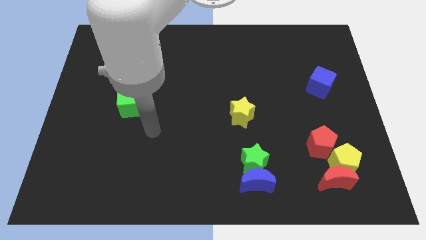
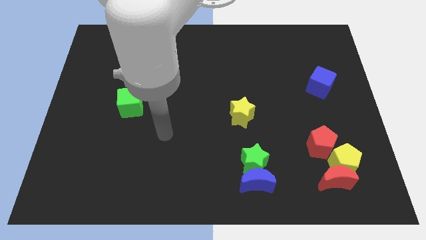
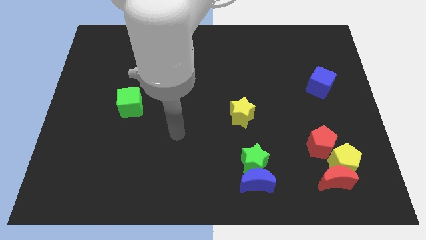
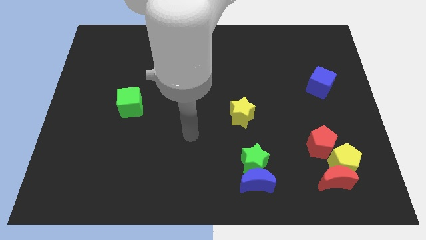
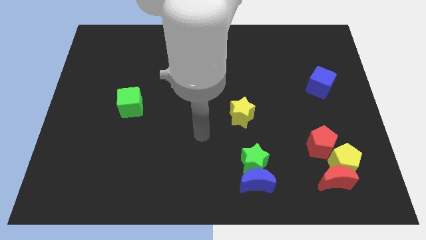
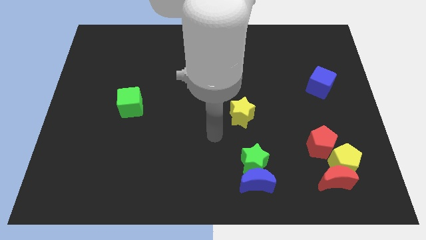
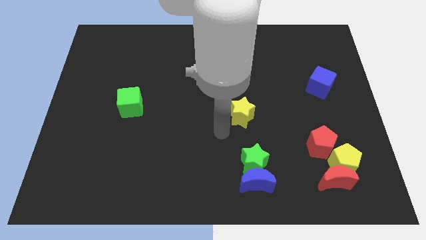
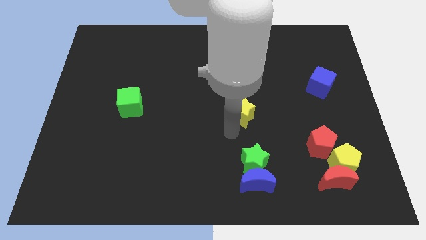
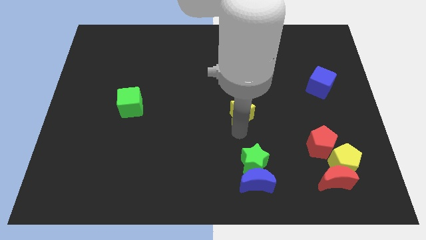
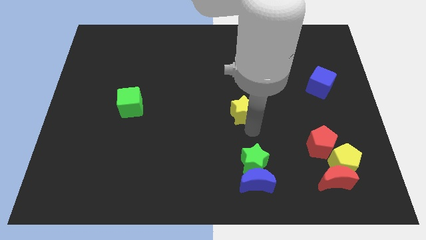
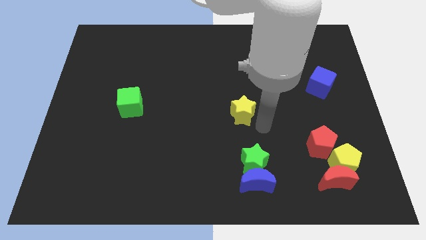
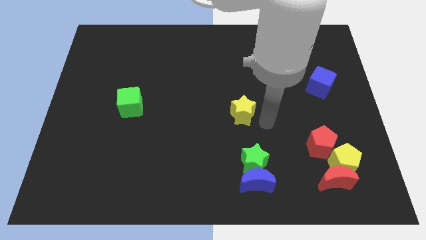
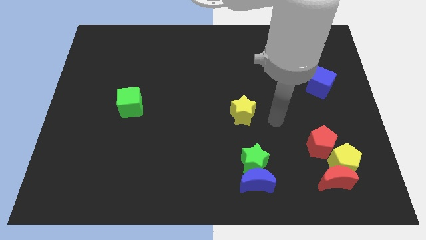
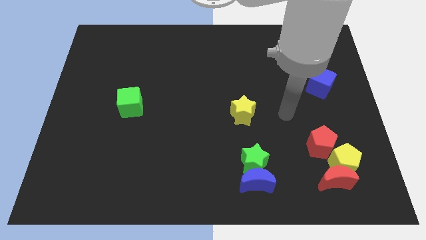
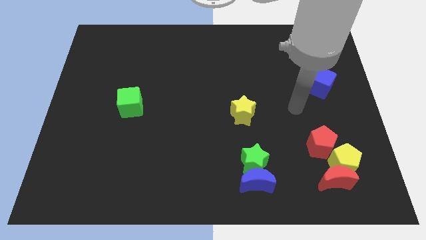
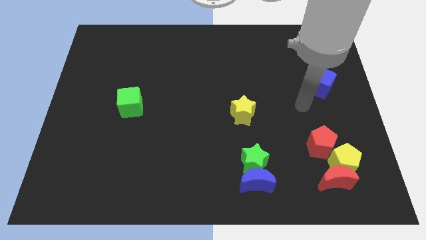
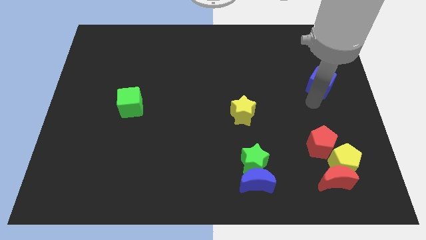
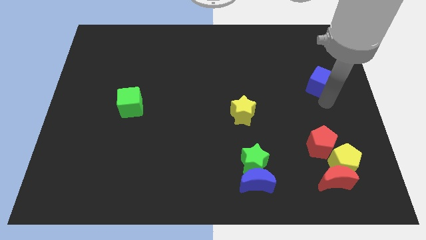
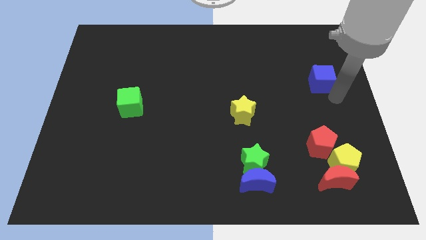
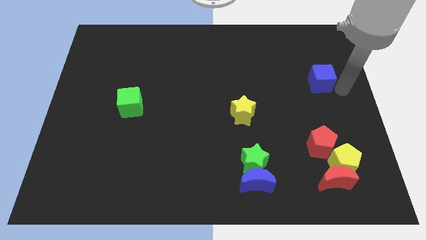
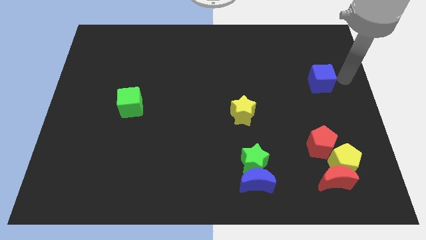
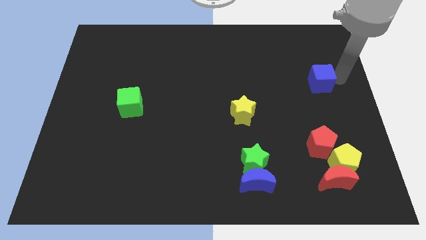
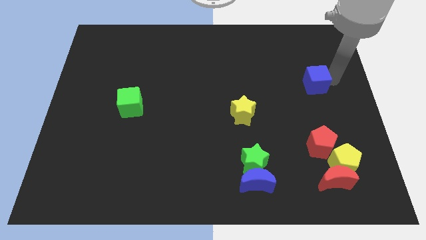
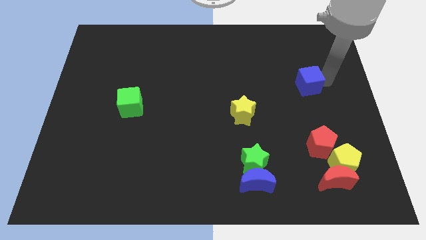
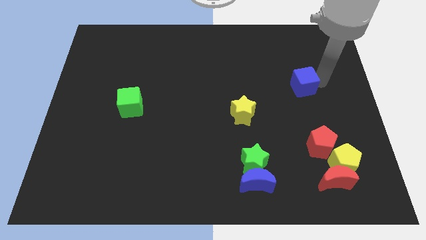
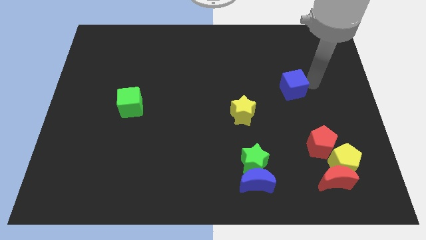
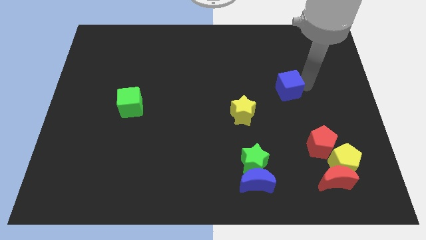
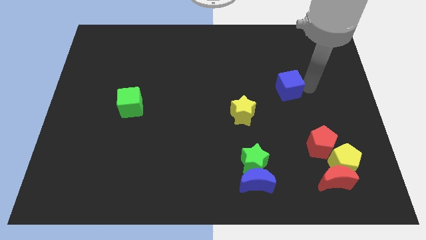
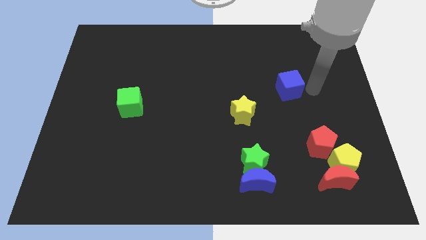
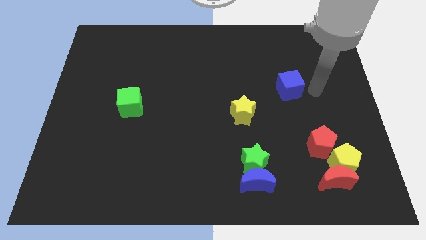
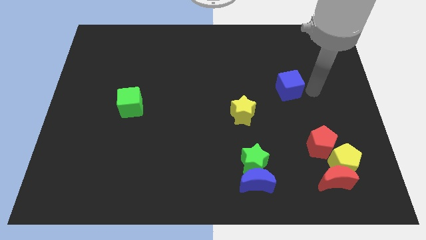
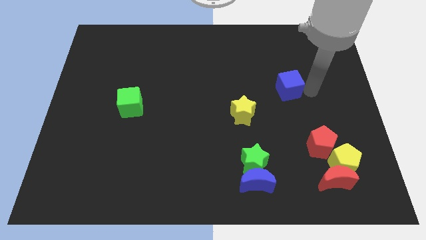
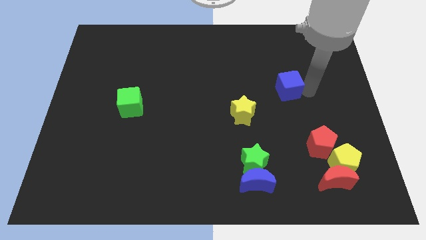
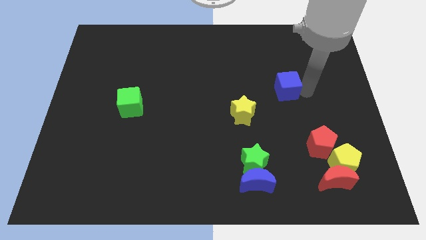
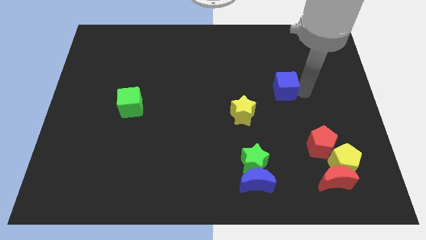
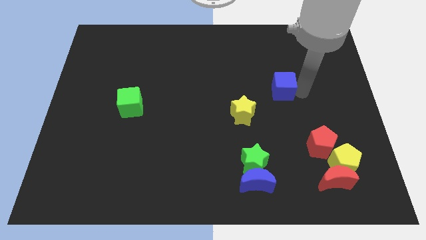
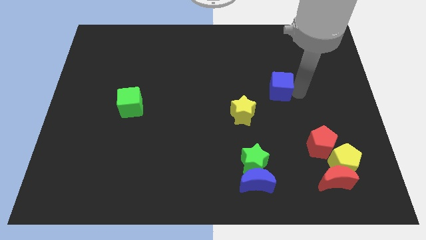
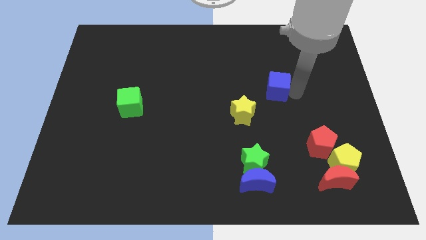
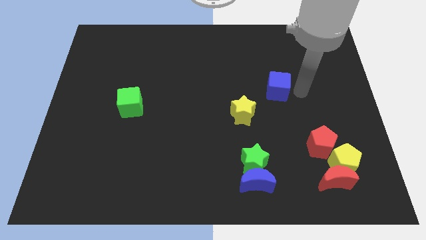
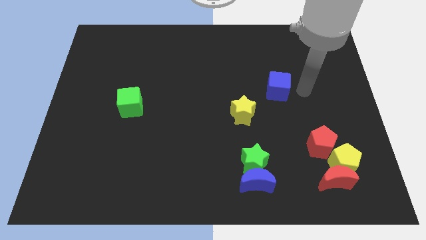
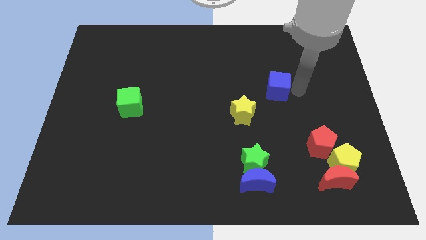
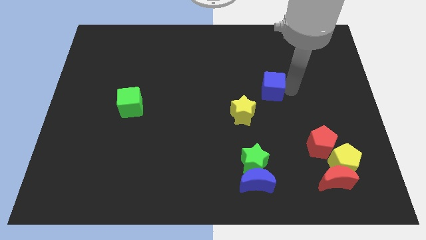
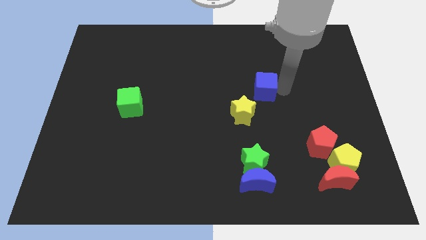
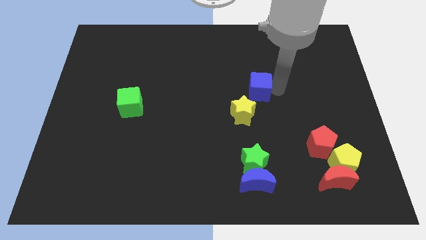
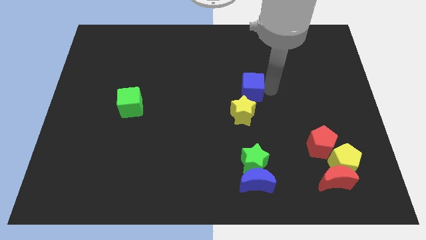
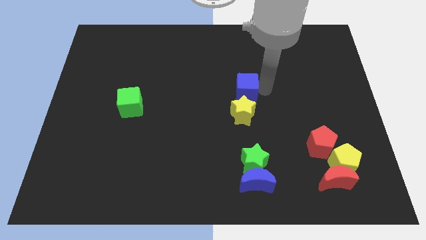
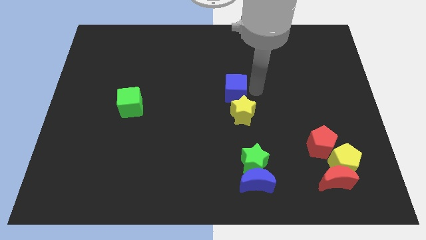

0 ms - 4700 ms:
move the blue cube left

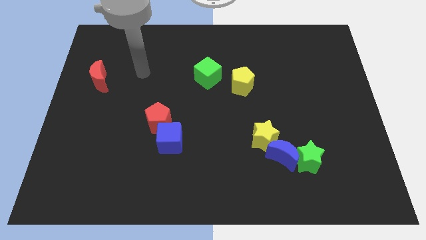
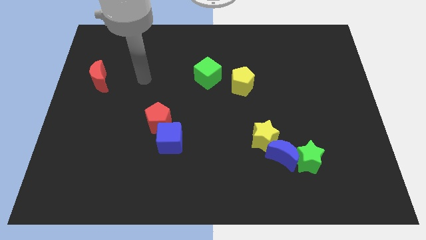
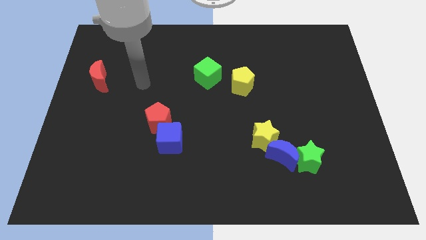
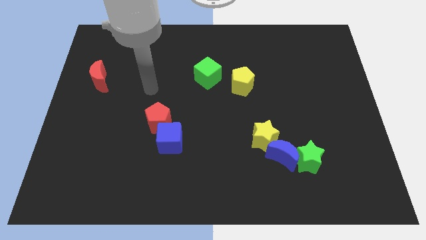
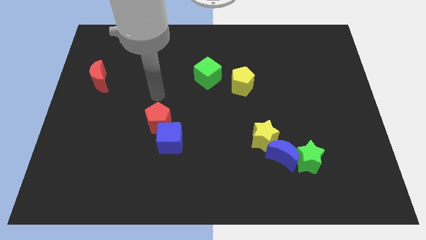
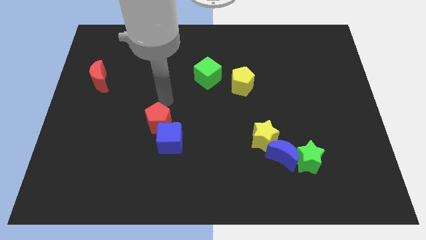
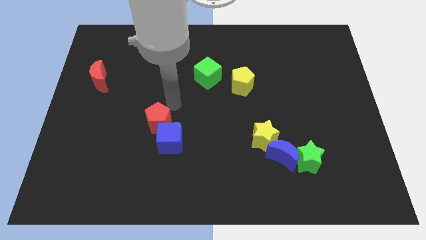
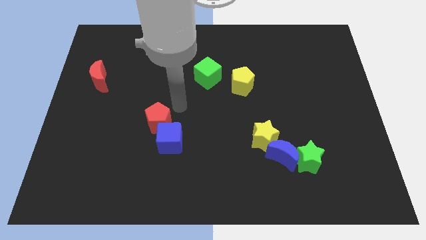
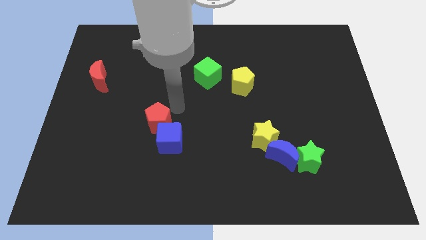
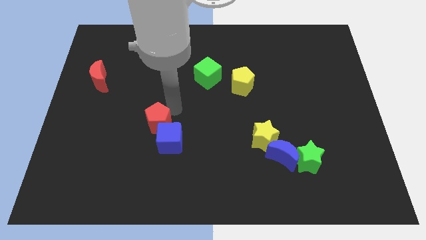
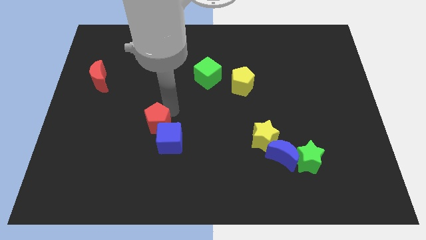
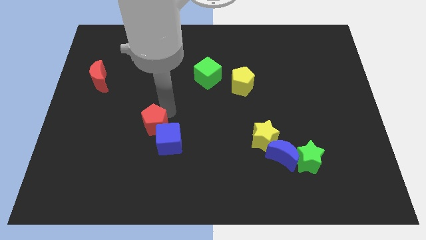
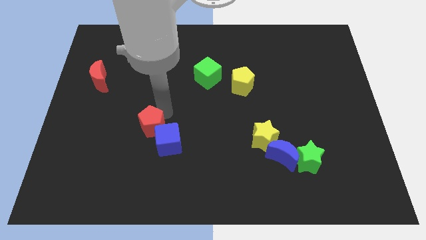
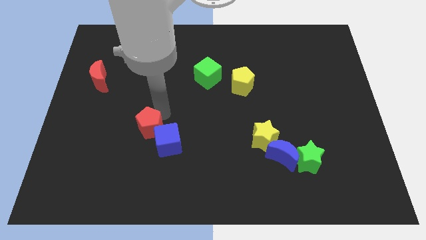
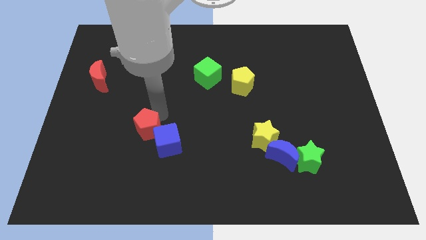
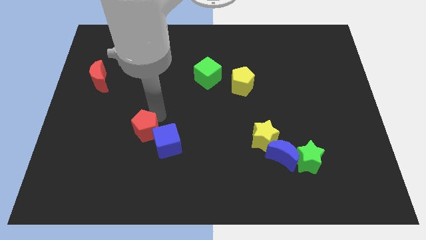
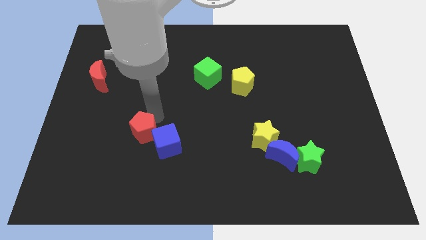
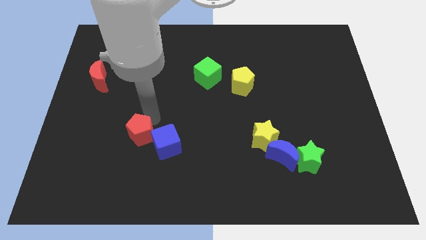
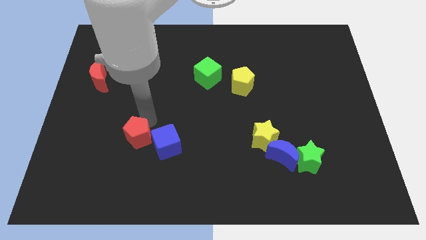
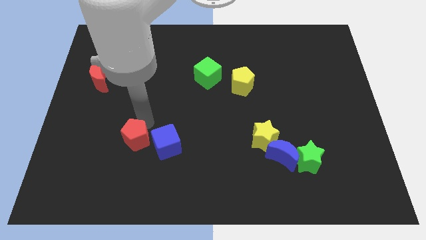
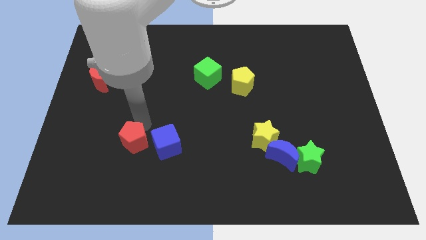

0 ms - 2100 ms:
slightly move the red pentagon diagonally downwards and left

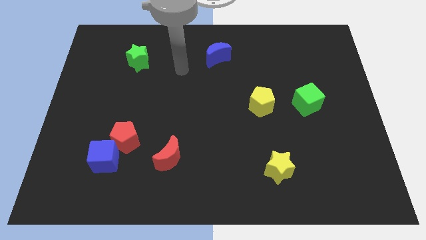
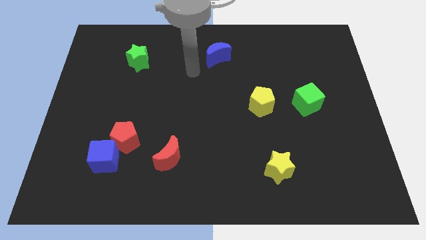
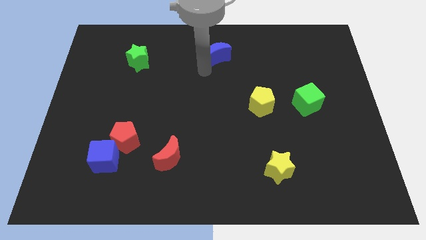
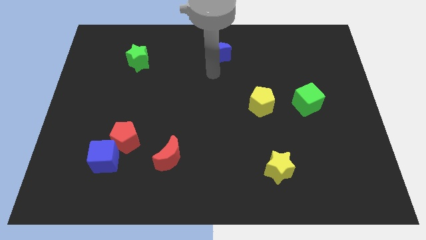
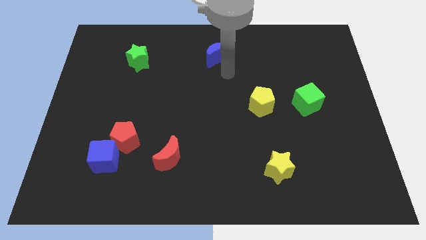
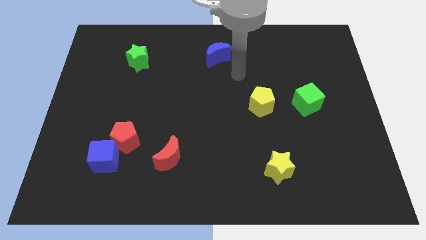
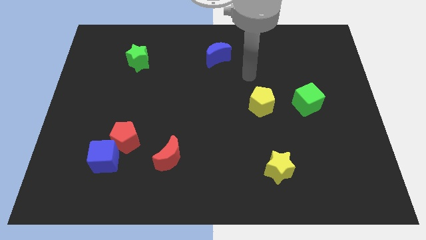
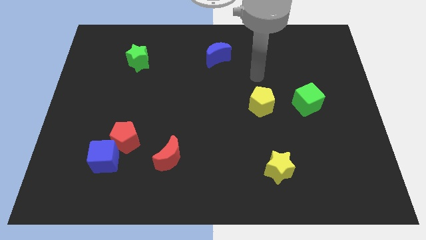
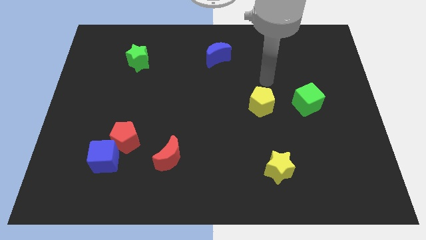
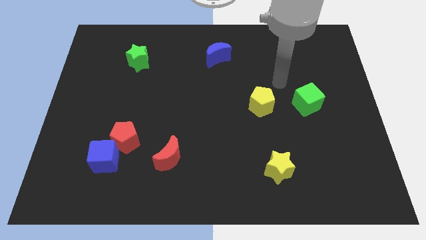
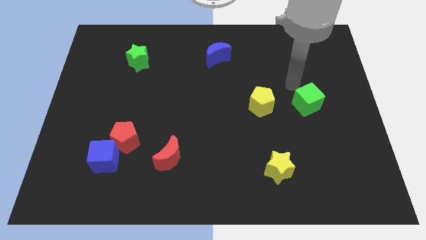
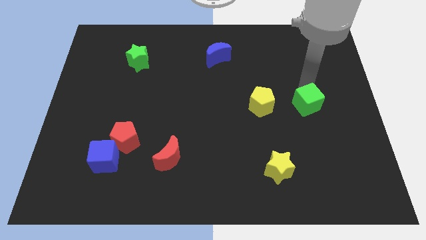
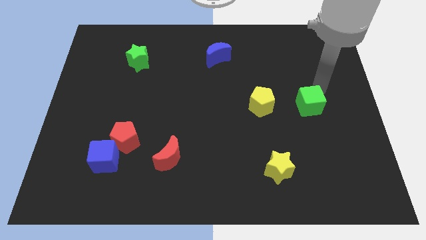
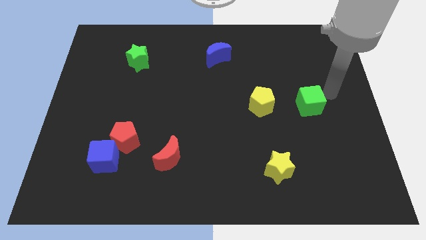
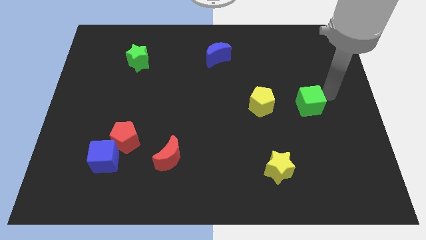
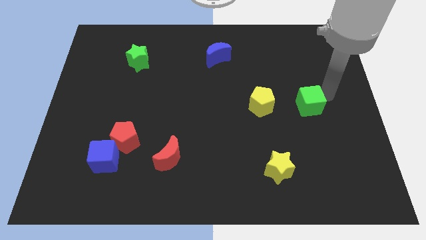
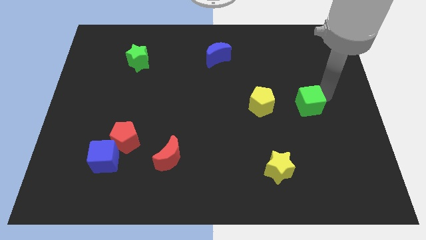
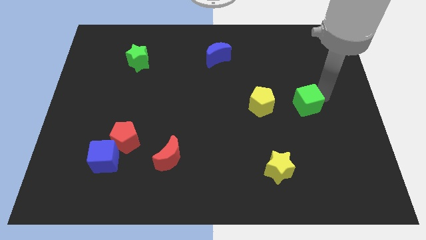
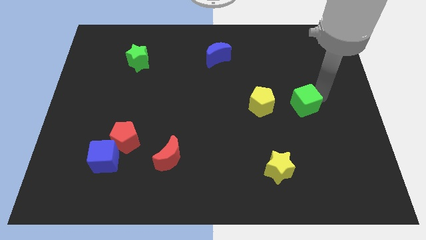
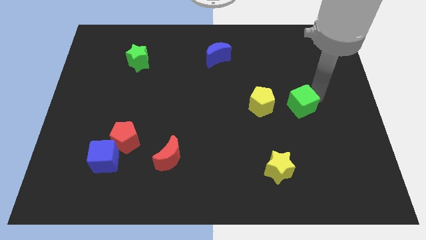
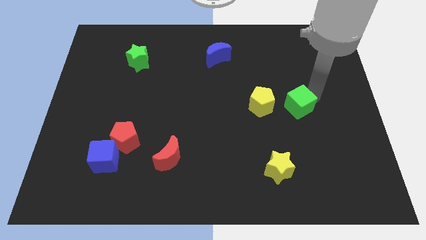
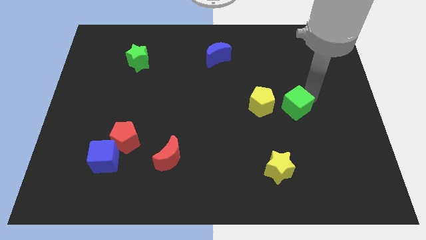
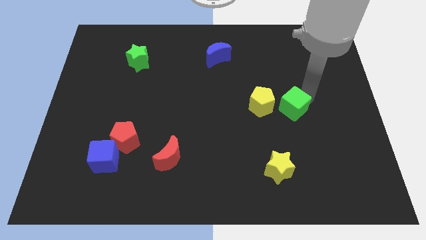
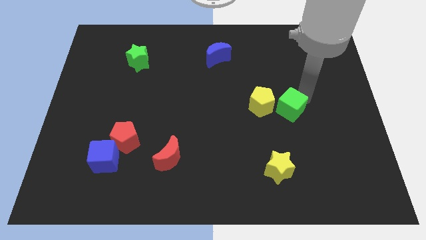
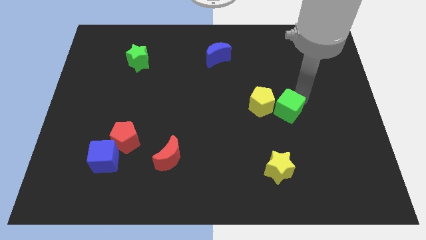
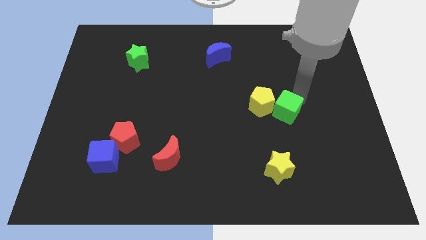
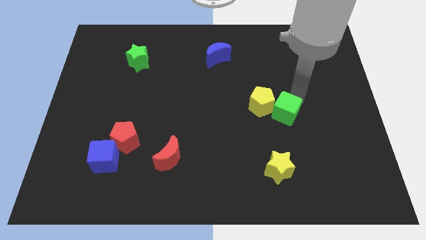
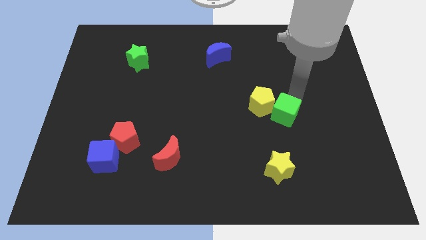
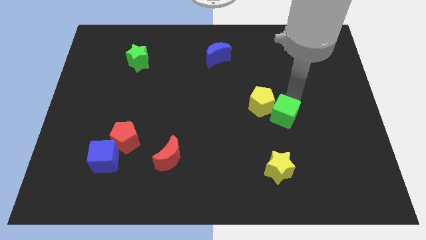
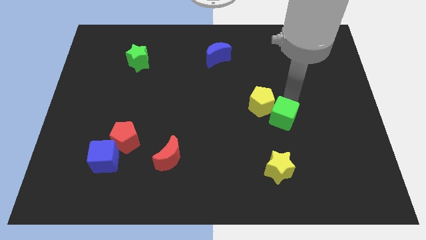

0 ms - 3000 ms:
slide the green cube slightly diagonally down and left
